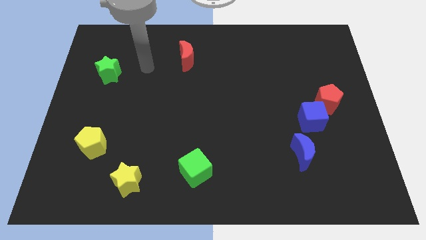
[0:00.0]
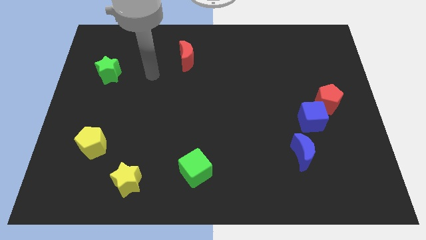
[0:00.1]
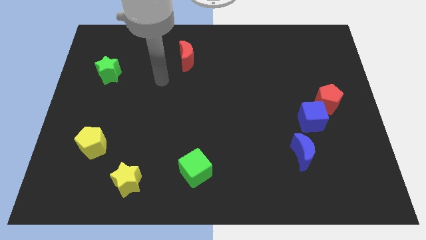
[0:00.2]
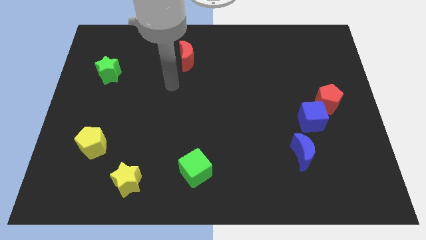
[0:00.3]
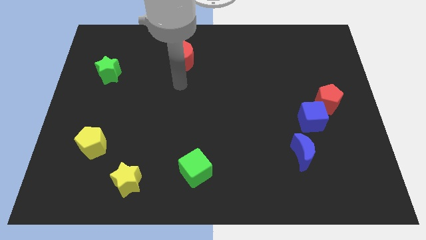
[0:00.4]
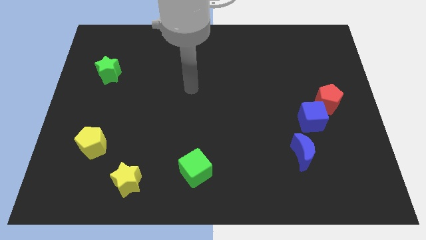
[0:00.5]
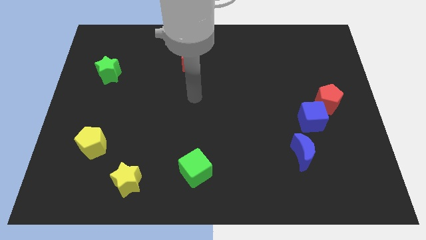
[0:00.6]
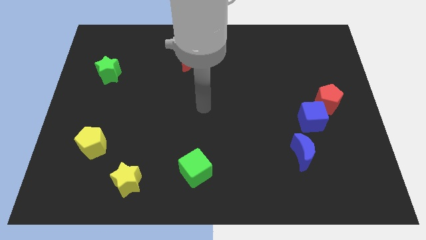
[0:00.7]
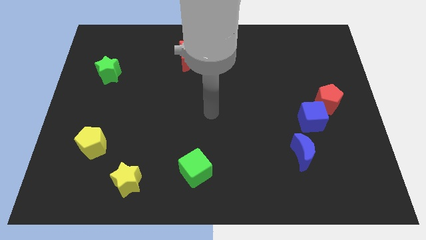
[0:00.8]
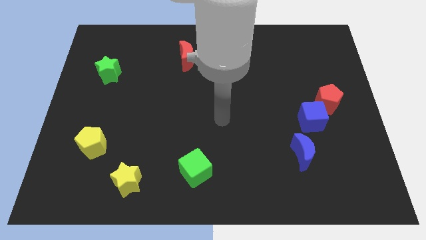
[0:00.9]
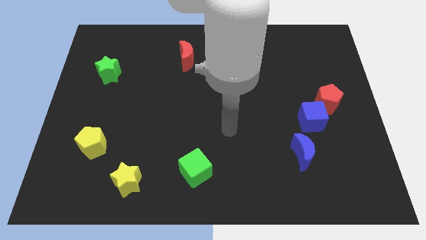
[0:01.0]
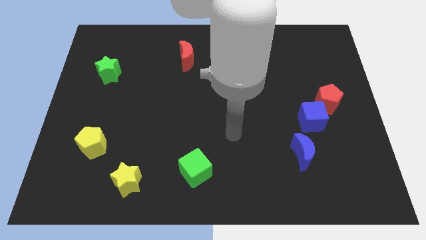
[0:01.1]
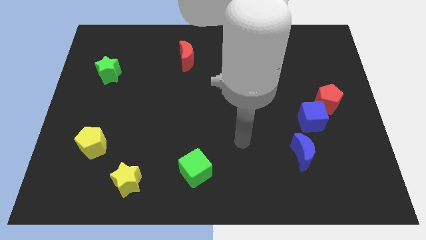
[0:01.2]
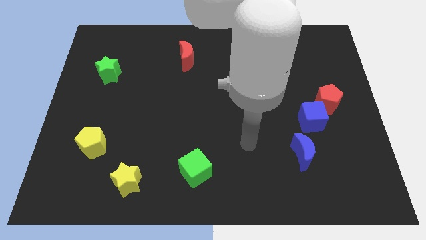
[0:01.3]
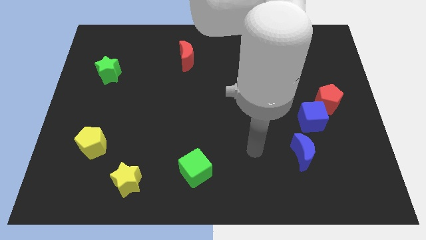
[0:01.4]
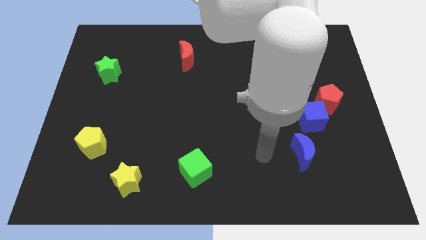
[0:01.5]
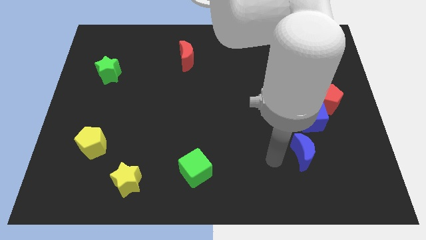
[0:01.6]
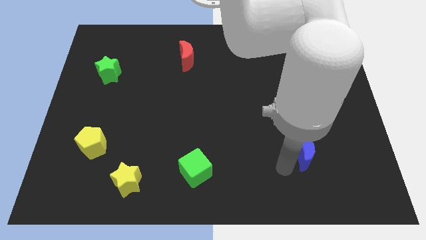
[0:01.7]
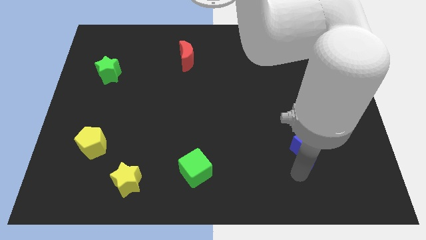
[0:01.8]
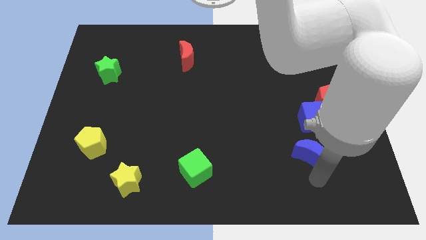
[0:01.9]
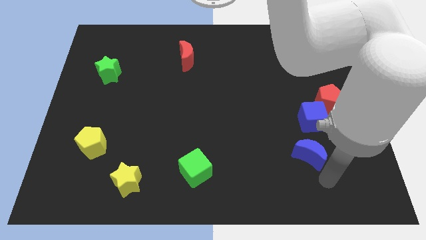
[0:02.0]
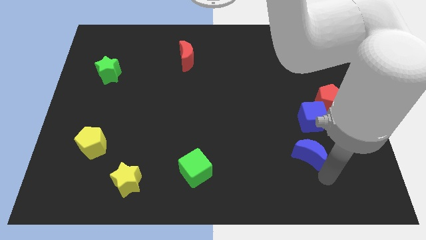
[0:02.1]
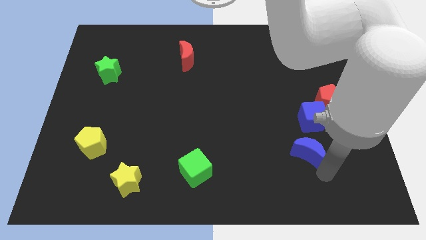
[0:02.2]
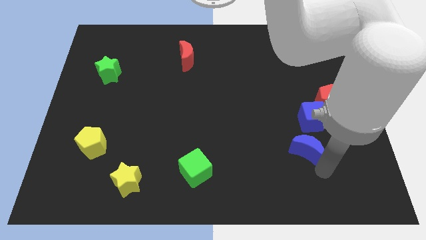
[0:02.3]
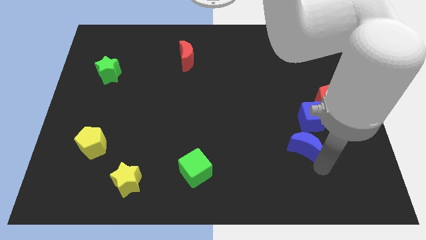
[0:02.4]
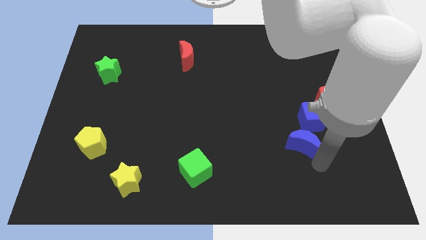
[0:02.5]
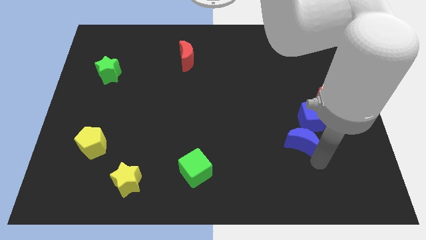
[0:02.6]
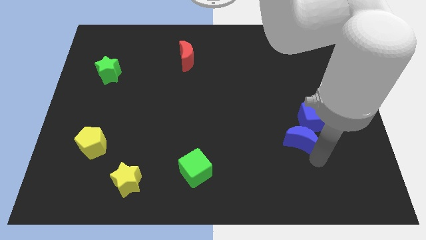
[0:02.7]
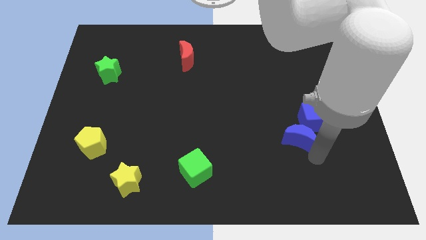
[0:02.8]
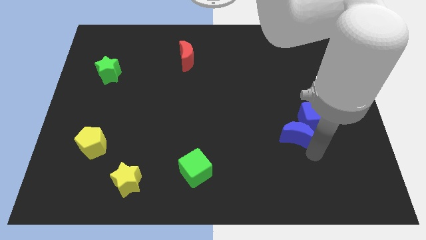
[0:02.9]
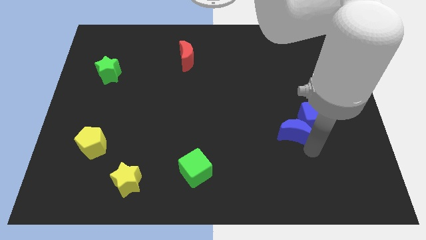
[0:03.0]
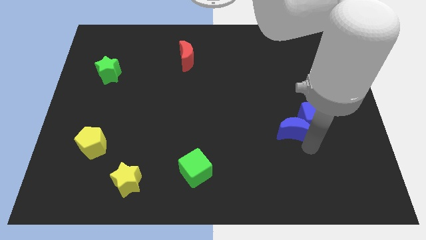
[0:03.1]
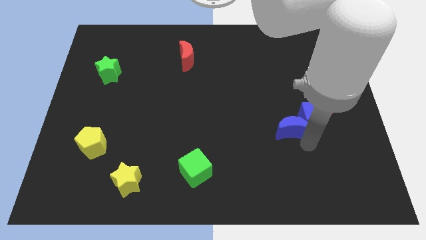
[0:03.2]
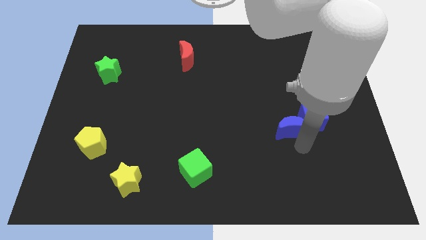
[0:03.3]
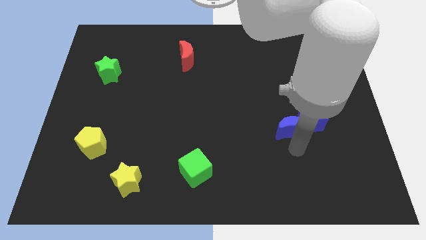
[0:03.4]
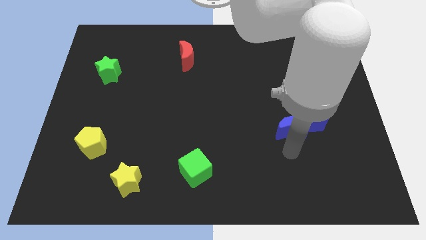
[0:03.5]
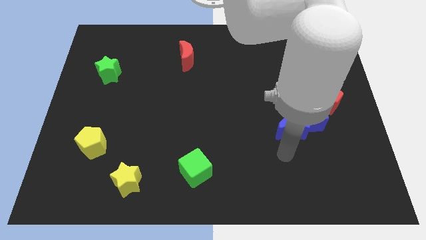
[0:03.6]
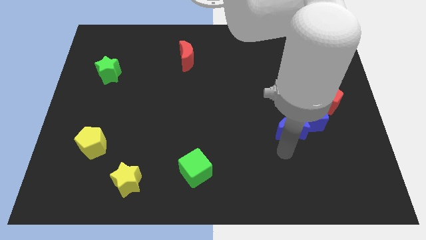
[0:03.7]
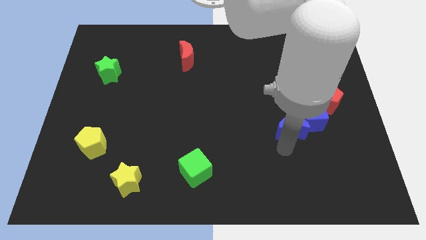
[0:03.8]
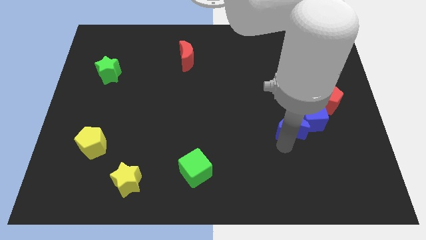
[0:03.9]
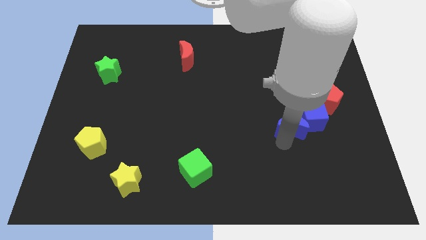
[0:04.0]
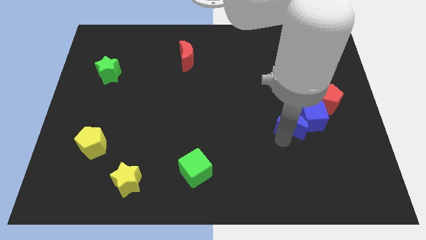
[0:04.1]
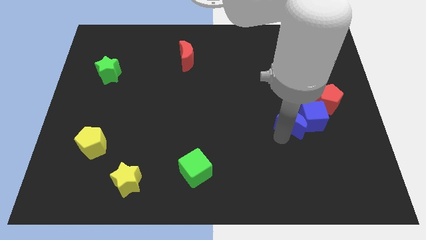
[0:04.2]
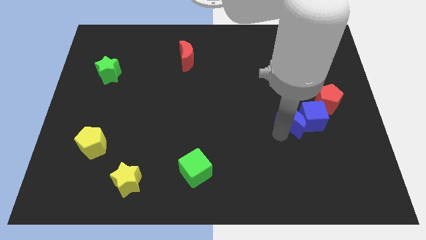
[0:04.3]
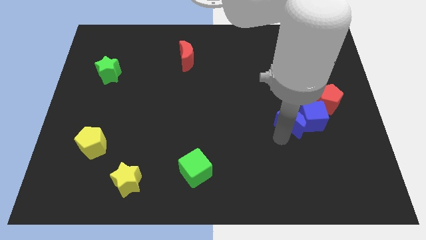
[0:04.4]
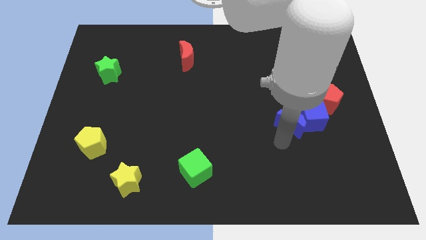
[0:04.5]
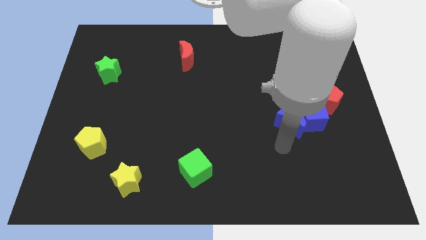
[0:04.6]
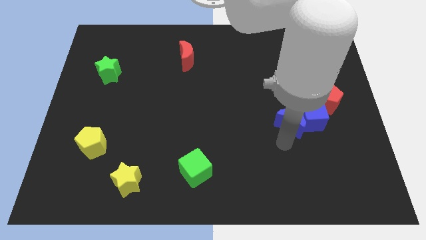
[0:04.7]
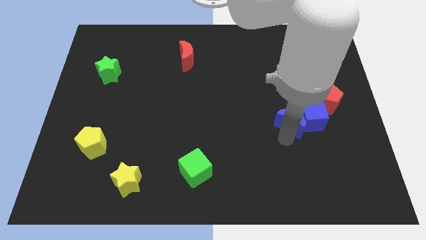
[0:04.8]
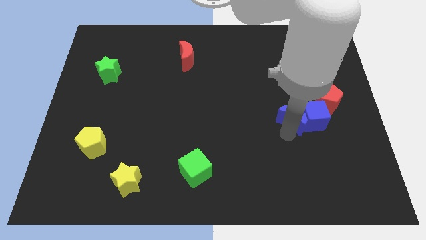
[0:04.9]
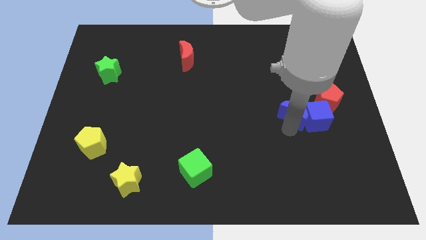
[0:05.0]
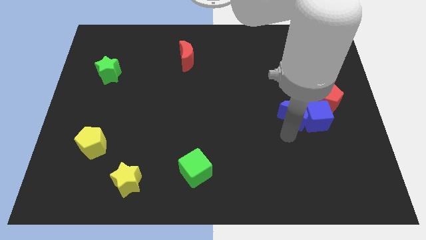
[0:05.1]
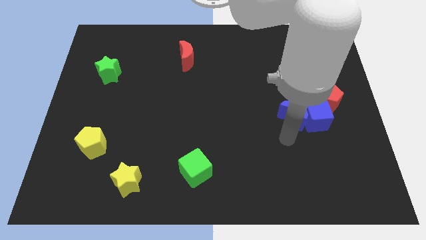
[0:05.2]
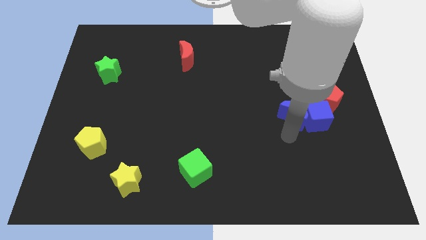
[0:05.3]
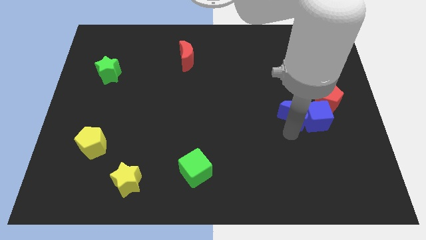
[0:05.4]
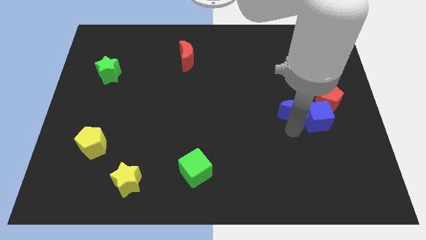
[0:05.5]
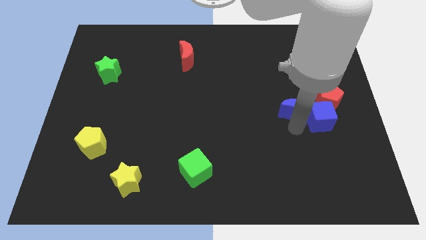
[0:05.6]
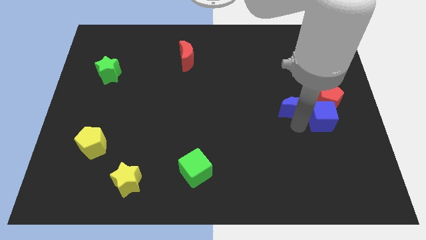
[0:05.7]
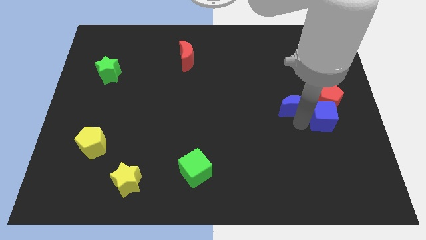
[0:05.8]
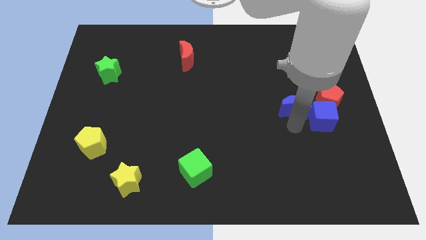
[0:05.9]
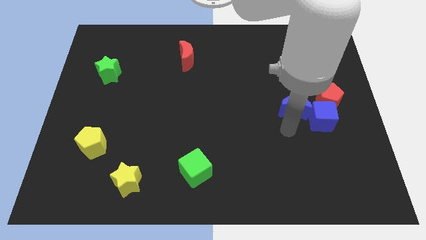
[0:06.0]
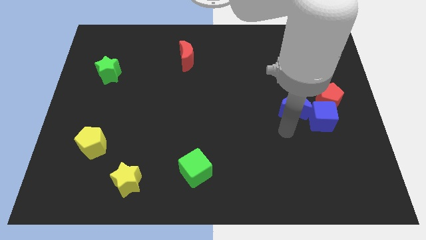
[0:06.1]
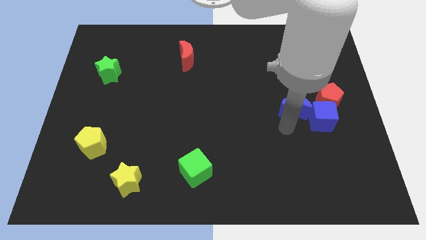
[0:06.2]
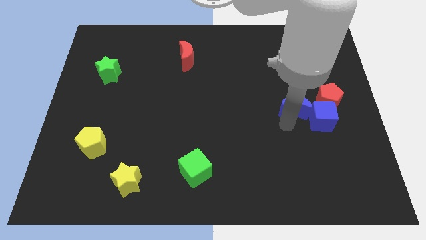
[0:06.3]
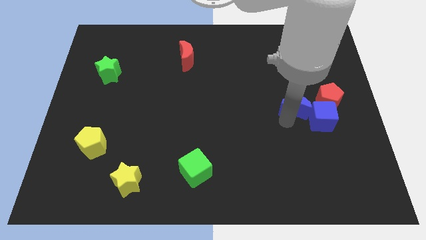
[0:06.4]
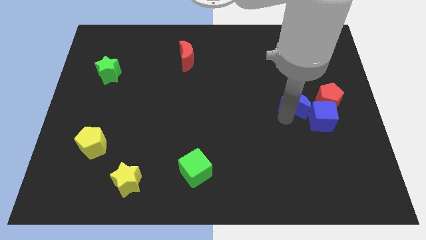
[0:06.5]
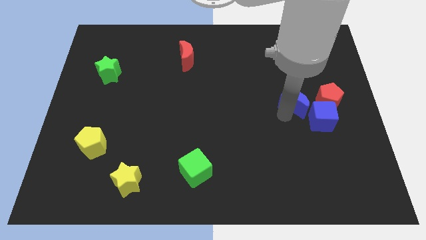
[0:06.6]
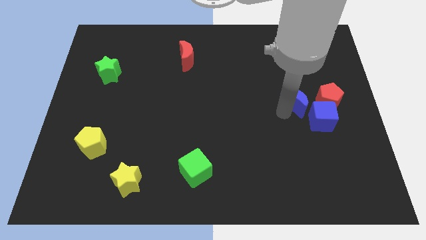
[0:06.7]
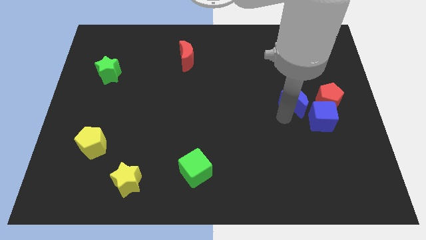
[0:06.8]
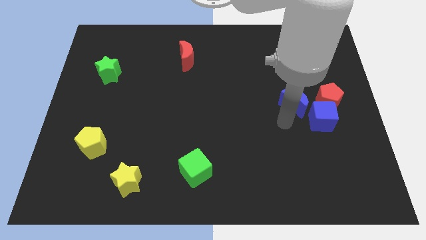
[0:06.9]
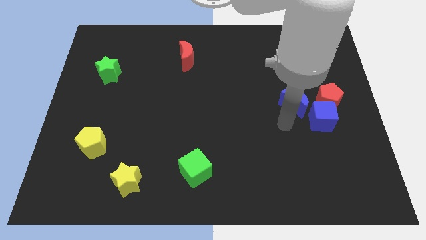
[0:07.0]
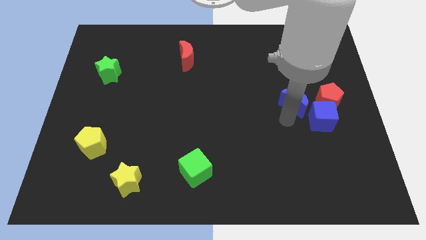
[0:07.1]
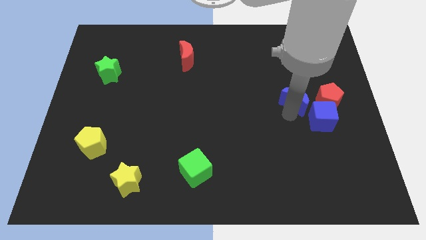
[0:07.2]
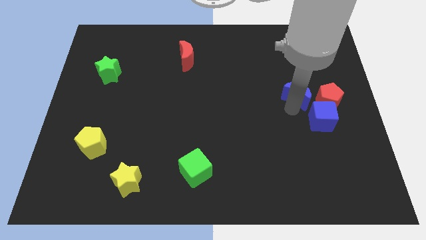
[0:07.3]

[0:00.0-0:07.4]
move the blue moon diagonally up and to the left of the red pentagon
